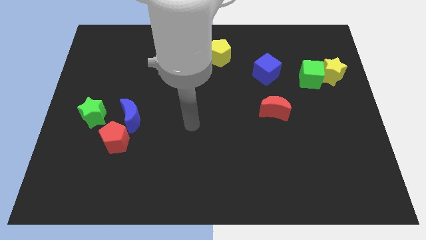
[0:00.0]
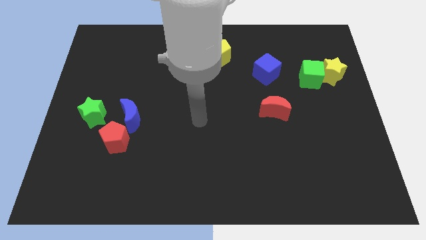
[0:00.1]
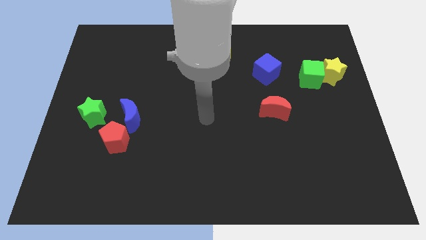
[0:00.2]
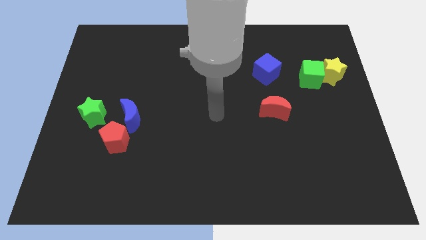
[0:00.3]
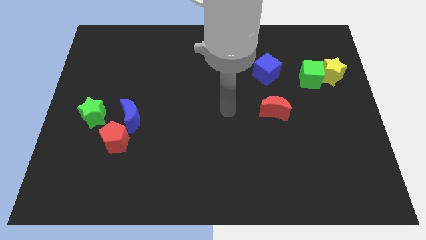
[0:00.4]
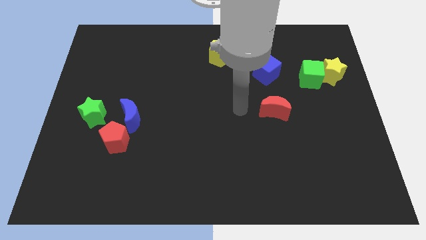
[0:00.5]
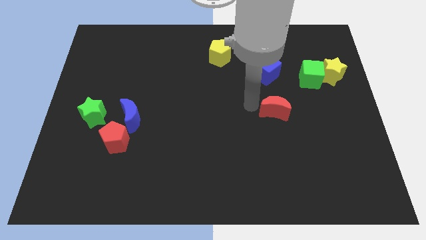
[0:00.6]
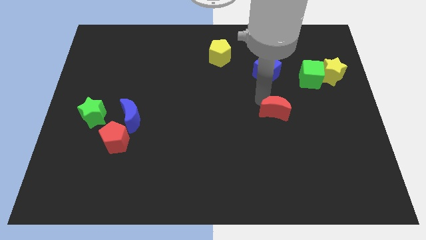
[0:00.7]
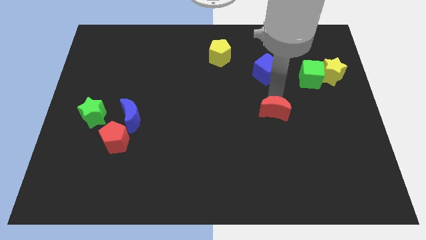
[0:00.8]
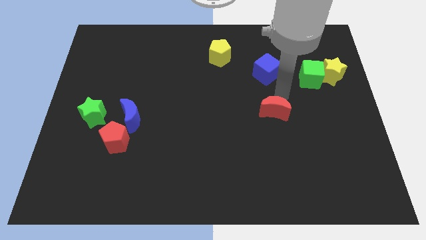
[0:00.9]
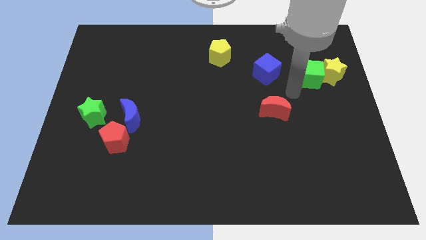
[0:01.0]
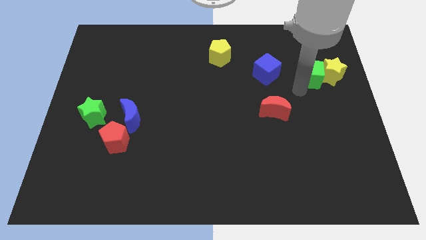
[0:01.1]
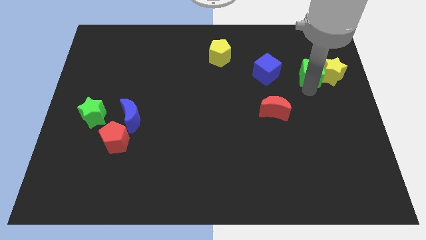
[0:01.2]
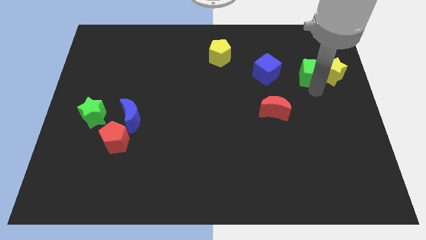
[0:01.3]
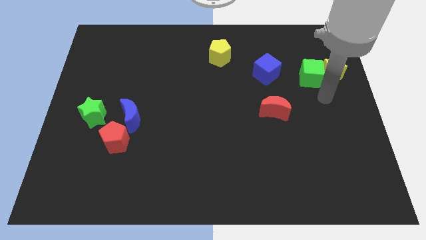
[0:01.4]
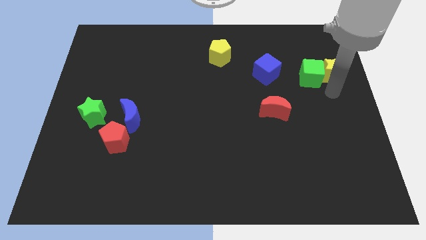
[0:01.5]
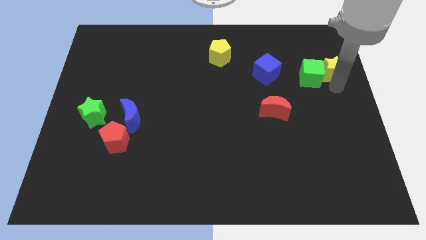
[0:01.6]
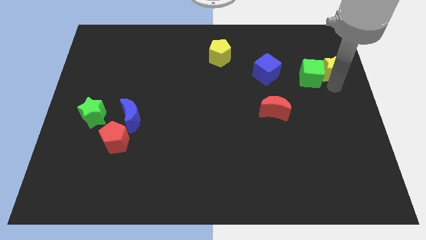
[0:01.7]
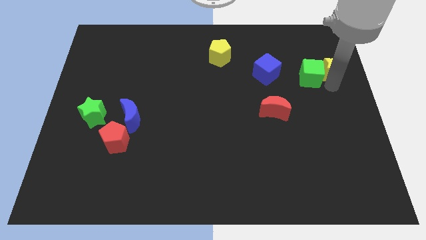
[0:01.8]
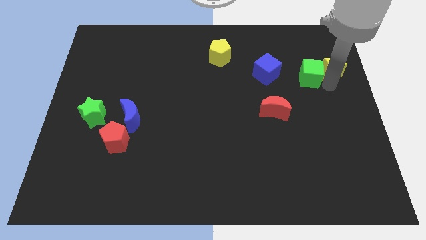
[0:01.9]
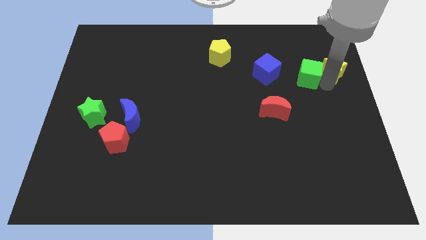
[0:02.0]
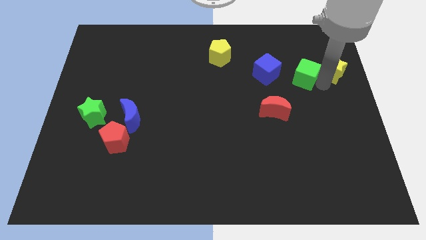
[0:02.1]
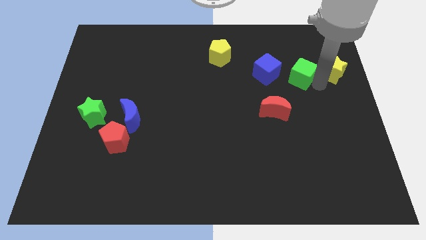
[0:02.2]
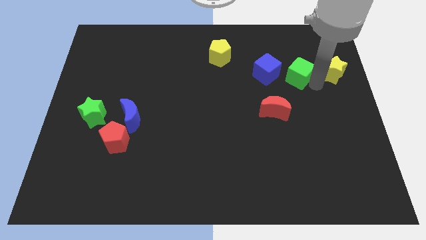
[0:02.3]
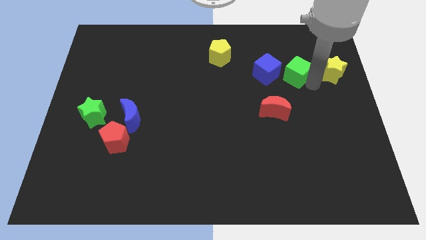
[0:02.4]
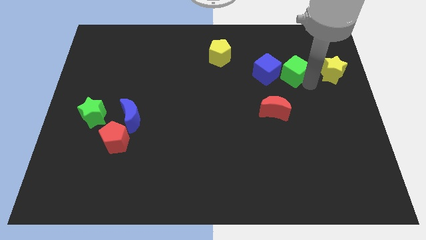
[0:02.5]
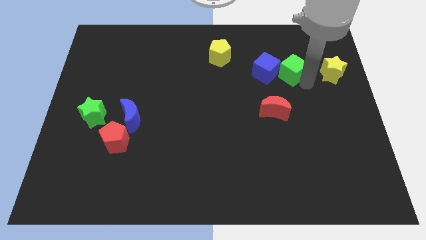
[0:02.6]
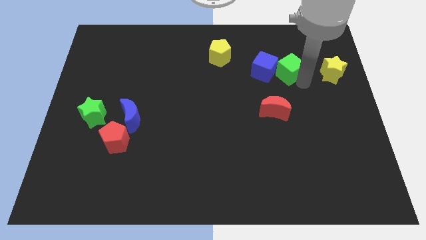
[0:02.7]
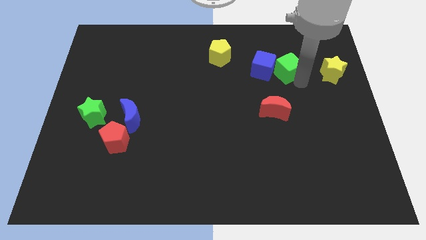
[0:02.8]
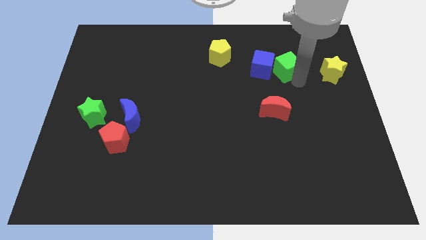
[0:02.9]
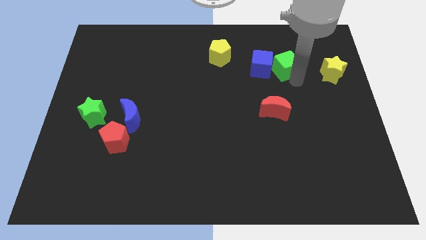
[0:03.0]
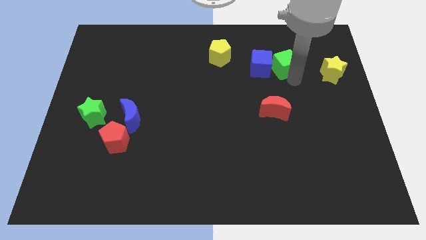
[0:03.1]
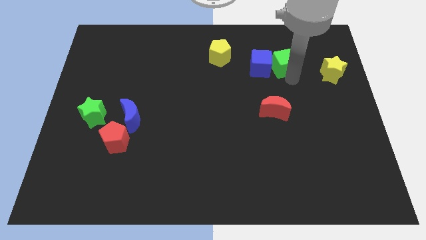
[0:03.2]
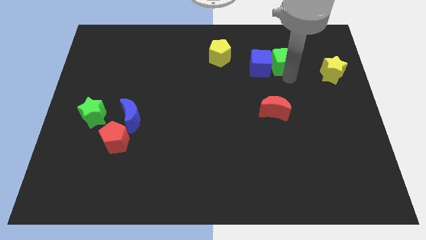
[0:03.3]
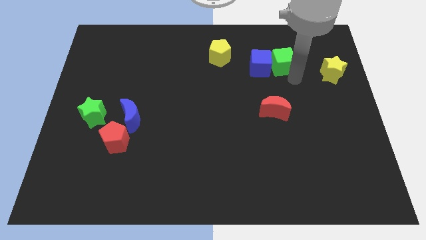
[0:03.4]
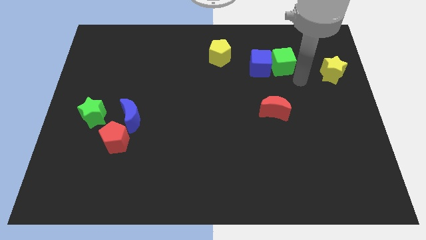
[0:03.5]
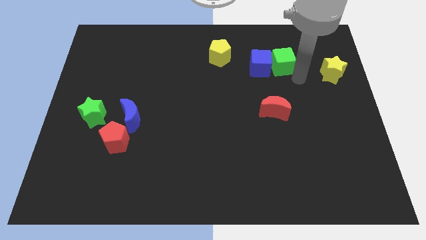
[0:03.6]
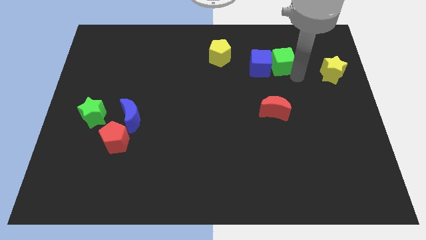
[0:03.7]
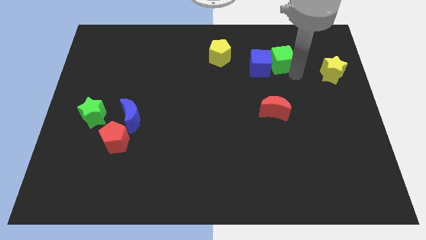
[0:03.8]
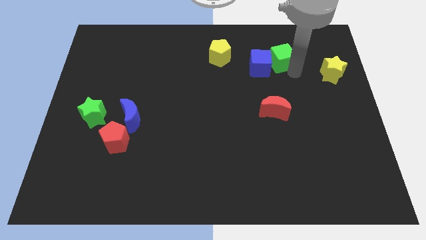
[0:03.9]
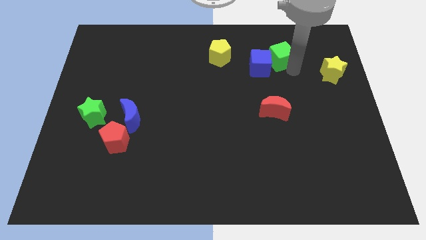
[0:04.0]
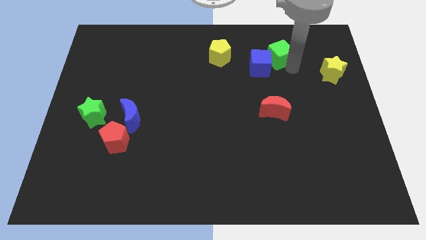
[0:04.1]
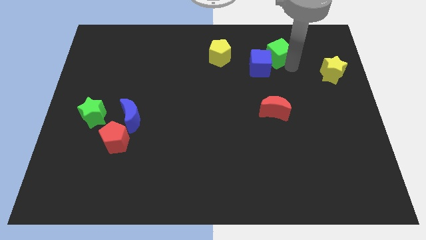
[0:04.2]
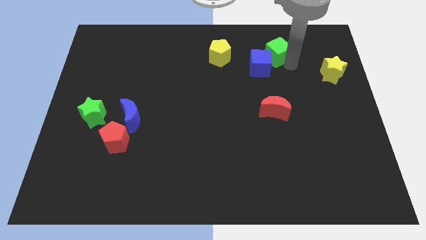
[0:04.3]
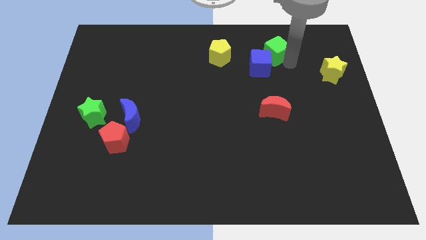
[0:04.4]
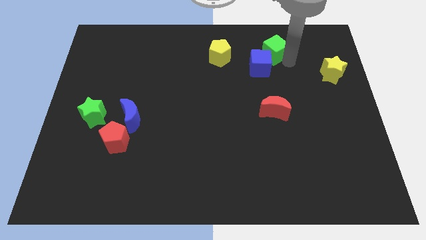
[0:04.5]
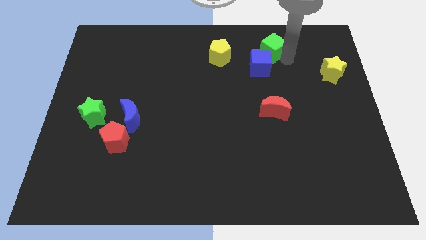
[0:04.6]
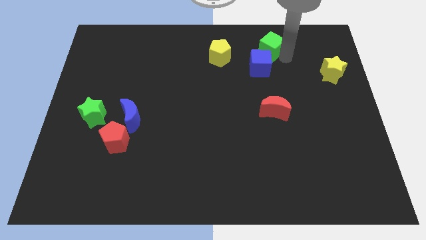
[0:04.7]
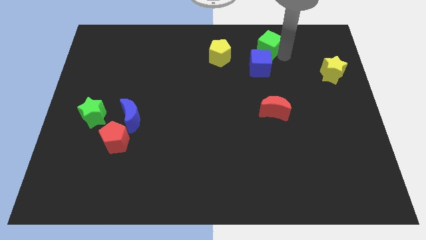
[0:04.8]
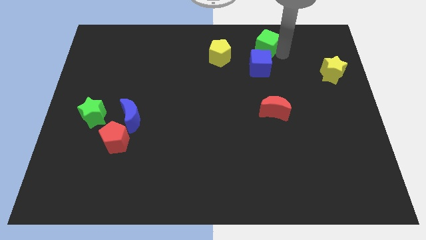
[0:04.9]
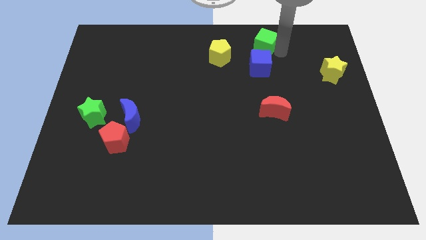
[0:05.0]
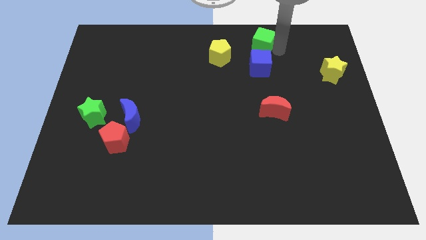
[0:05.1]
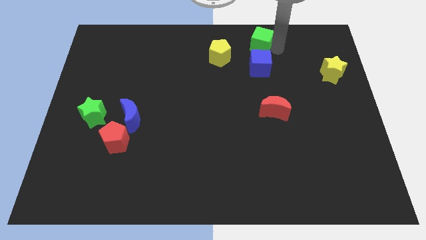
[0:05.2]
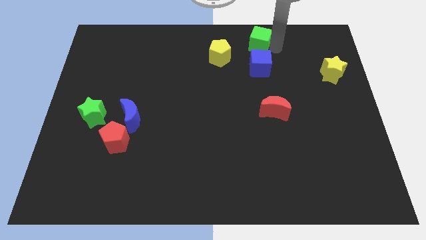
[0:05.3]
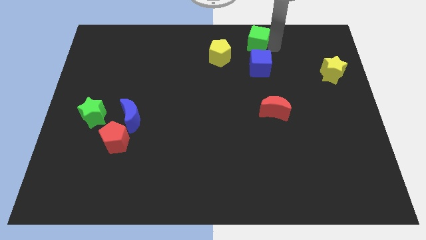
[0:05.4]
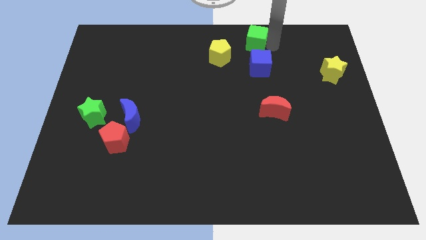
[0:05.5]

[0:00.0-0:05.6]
push the green cube to the top side

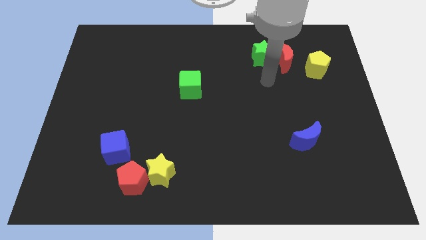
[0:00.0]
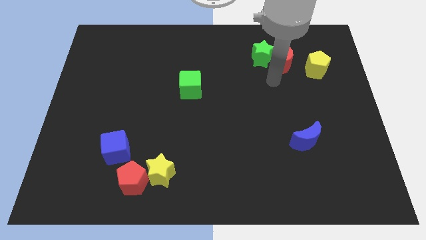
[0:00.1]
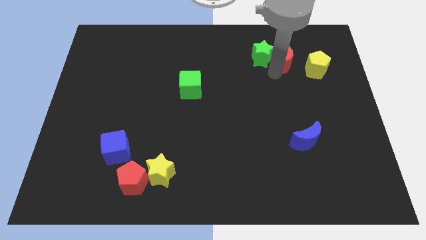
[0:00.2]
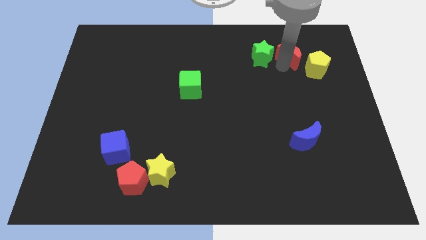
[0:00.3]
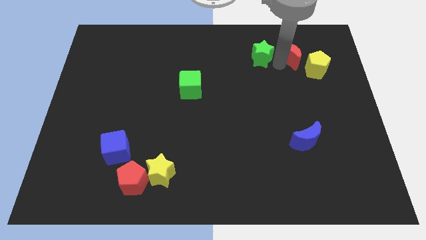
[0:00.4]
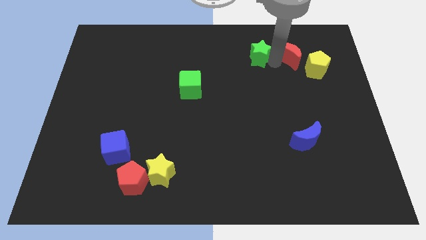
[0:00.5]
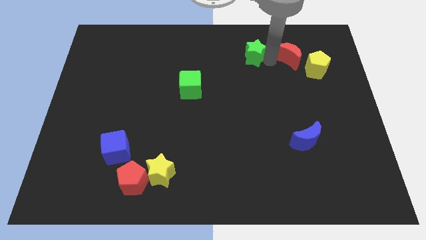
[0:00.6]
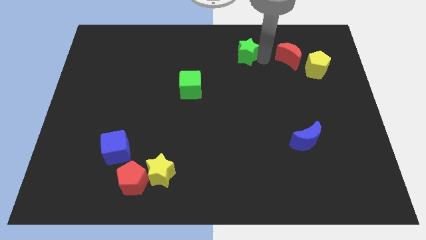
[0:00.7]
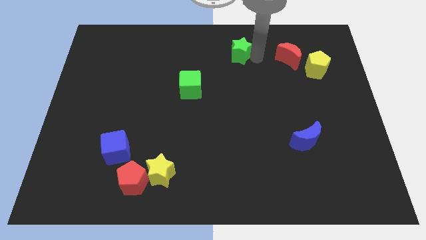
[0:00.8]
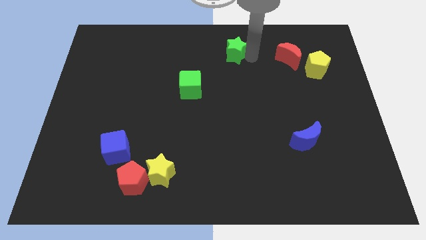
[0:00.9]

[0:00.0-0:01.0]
slide the green star to the towards your base

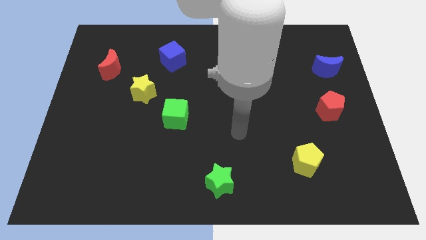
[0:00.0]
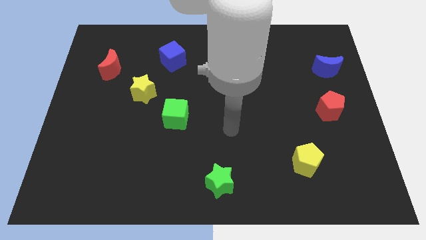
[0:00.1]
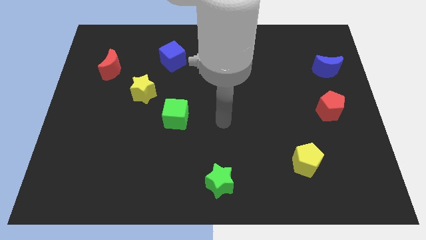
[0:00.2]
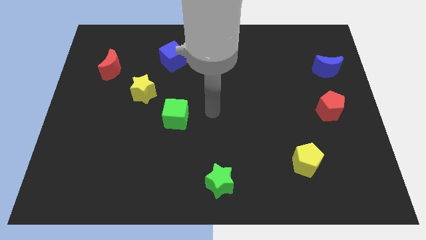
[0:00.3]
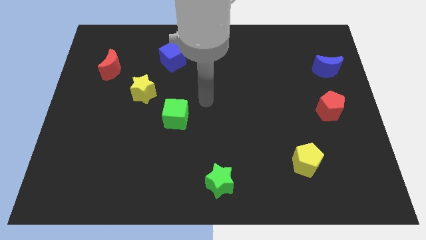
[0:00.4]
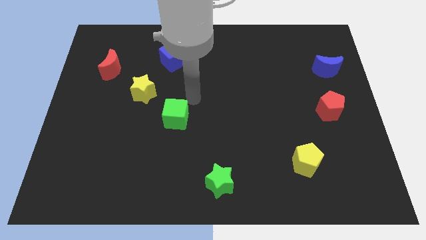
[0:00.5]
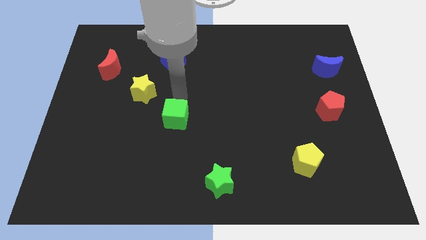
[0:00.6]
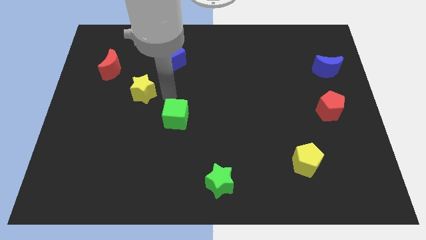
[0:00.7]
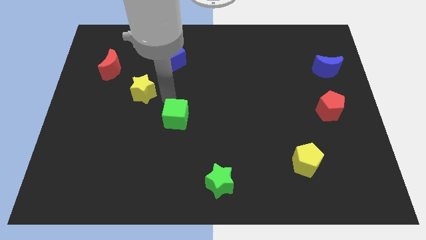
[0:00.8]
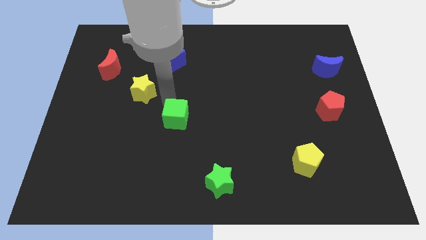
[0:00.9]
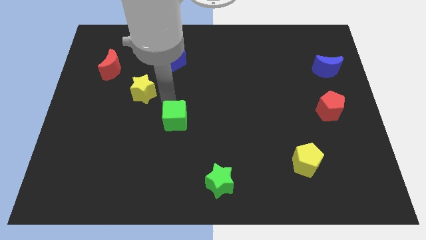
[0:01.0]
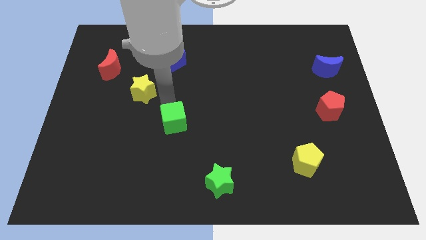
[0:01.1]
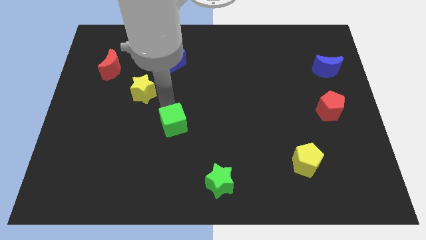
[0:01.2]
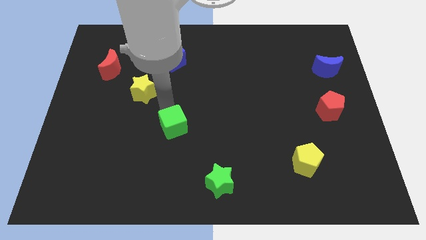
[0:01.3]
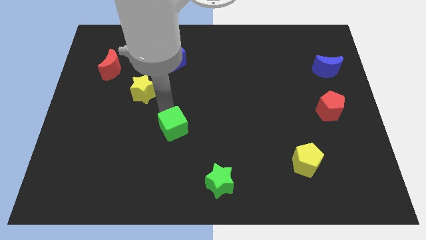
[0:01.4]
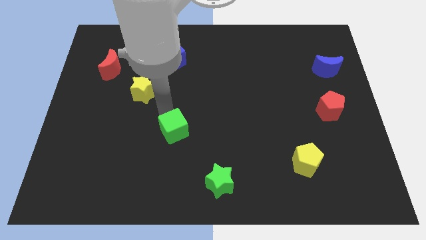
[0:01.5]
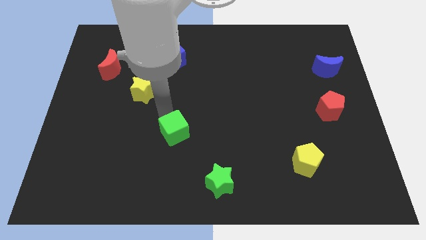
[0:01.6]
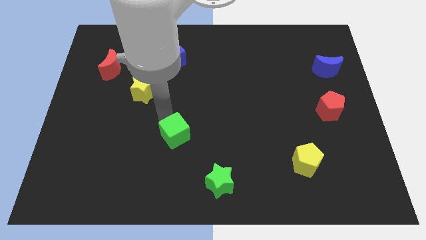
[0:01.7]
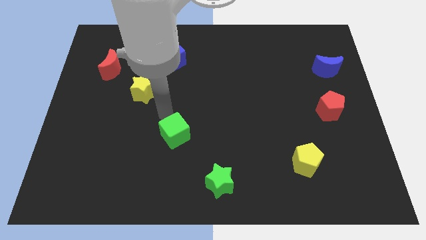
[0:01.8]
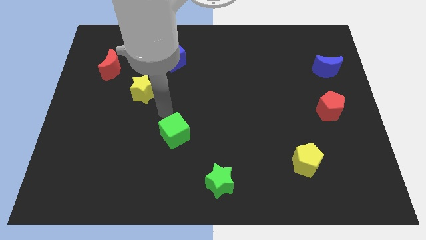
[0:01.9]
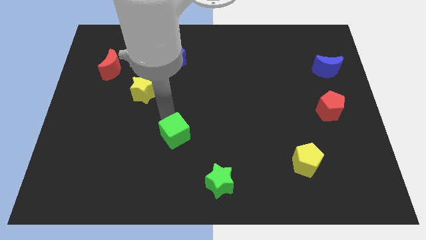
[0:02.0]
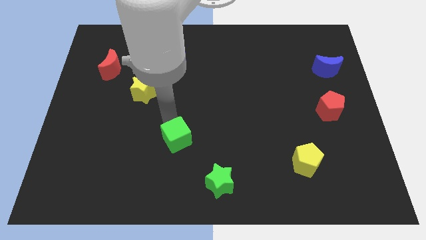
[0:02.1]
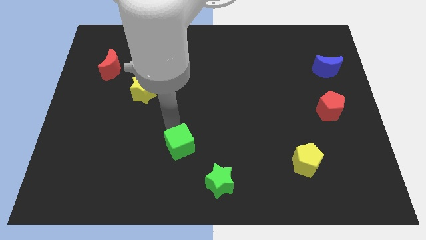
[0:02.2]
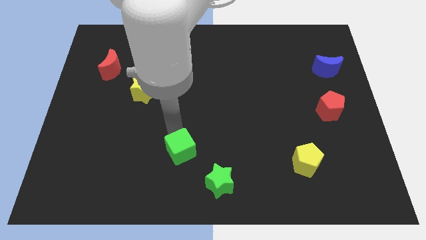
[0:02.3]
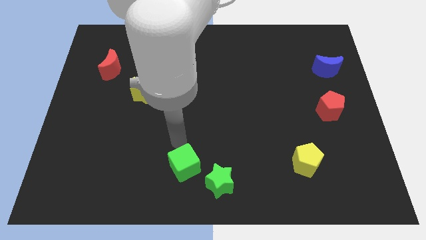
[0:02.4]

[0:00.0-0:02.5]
push the green cube to the bottom
